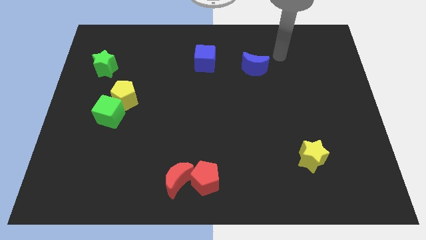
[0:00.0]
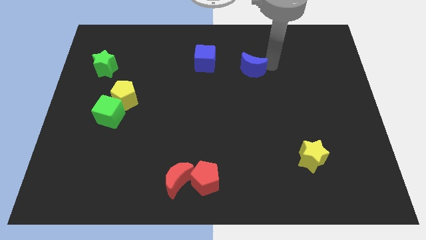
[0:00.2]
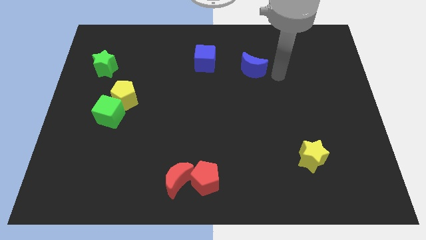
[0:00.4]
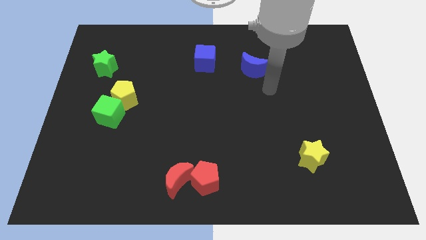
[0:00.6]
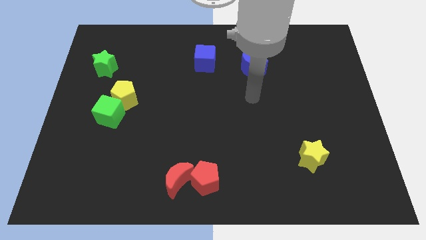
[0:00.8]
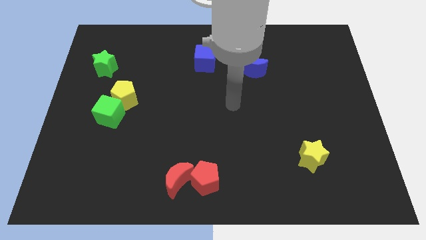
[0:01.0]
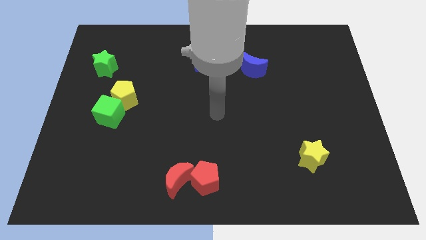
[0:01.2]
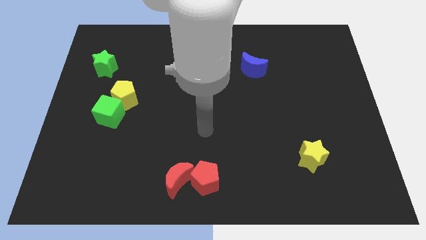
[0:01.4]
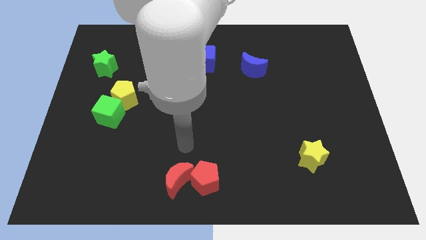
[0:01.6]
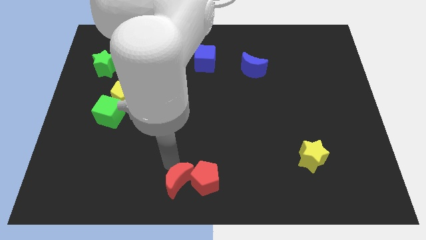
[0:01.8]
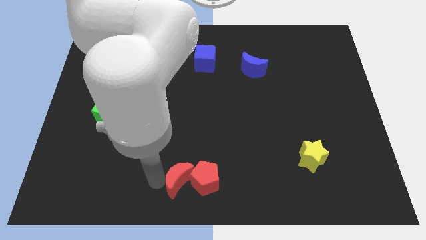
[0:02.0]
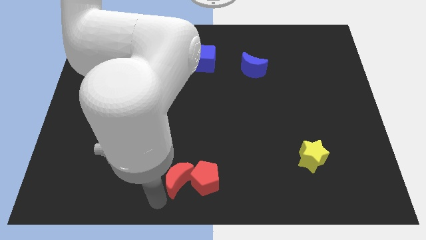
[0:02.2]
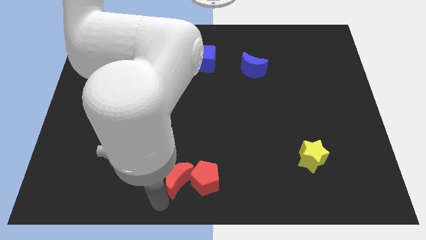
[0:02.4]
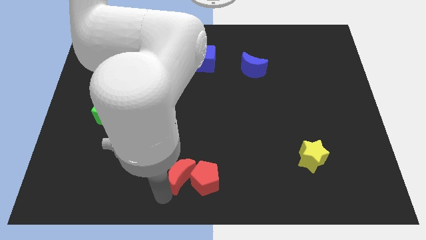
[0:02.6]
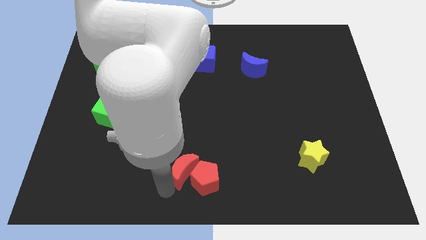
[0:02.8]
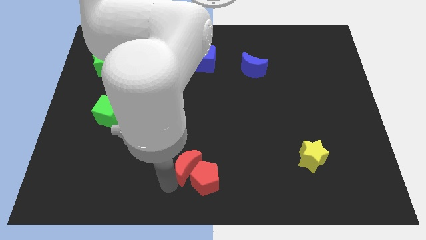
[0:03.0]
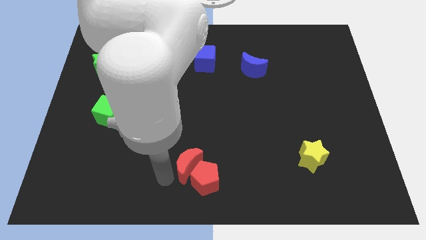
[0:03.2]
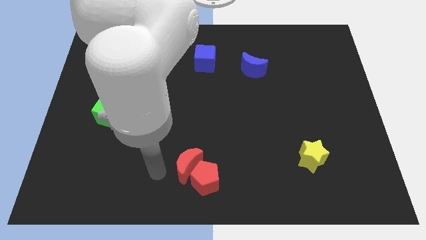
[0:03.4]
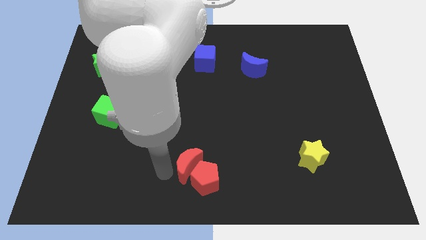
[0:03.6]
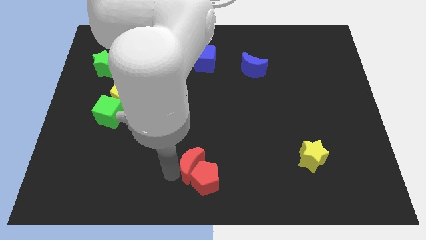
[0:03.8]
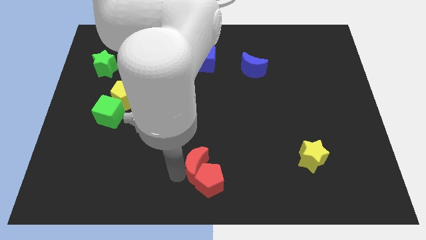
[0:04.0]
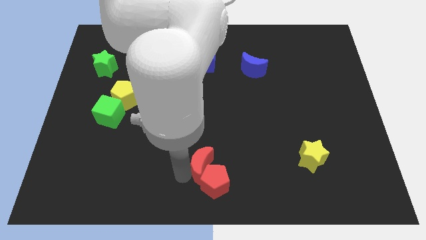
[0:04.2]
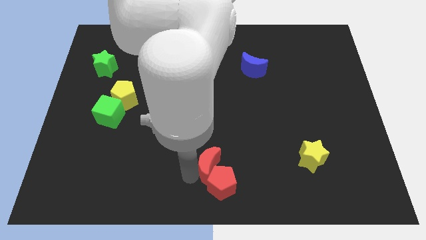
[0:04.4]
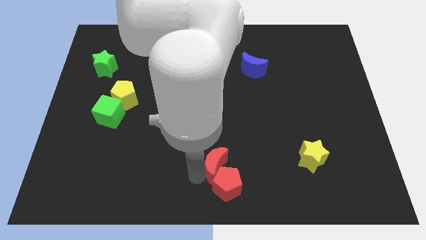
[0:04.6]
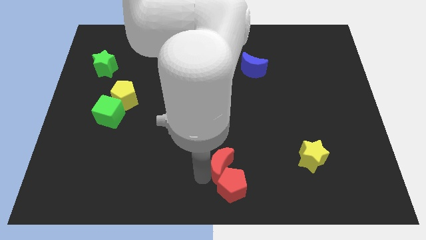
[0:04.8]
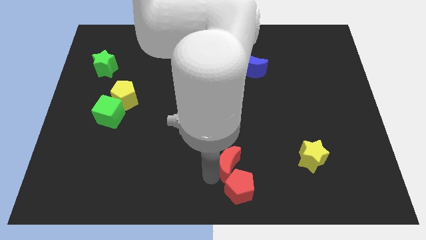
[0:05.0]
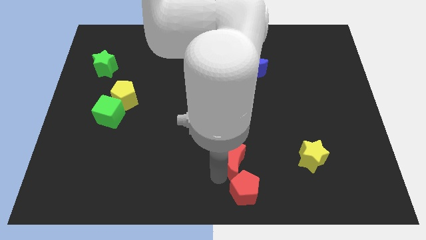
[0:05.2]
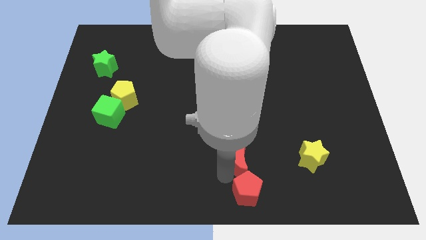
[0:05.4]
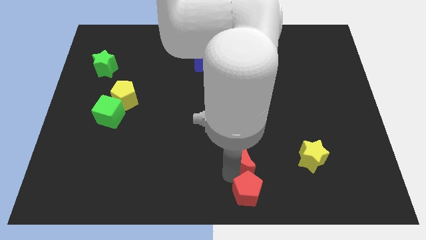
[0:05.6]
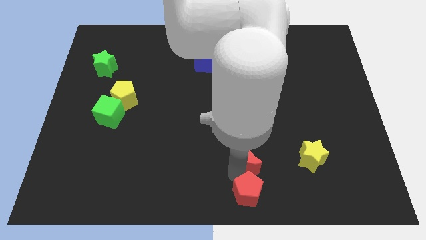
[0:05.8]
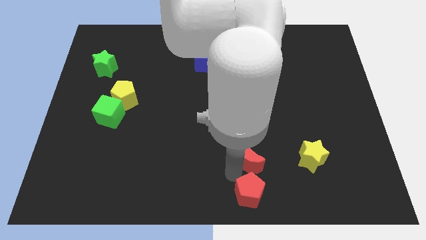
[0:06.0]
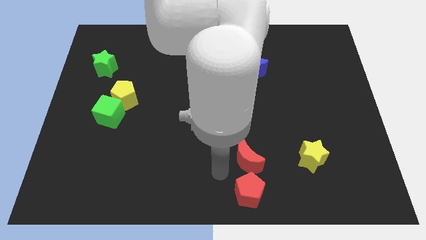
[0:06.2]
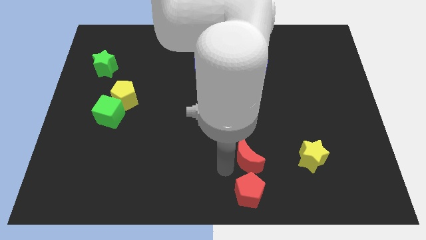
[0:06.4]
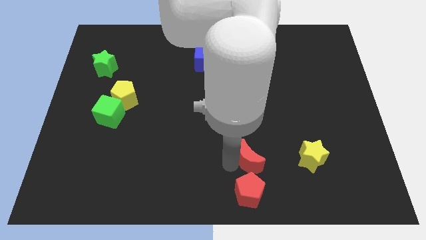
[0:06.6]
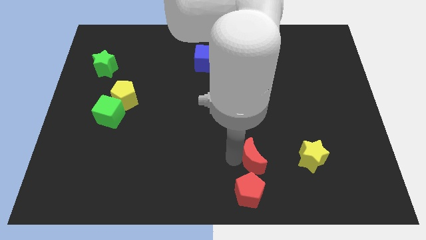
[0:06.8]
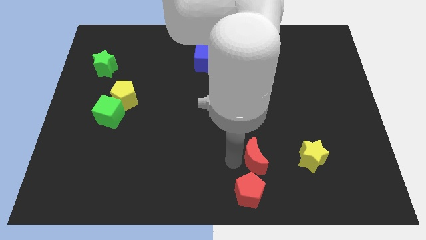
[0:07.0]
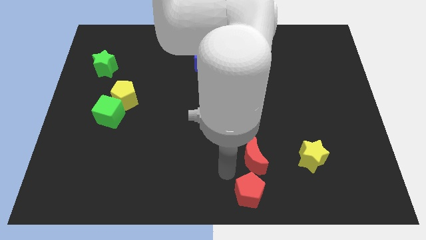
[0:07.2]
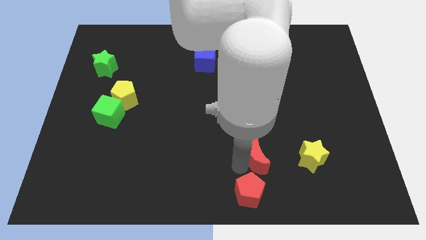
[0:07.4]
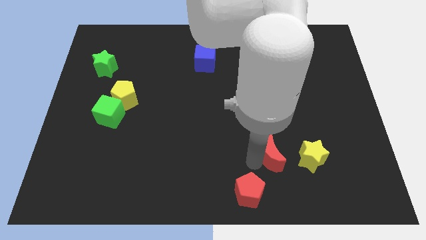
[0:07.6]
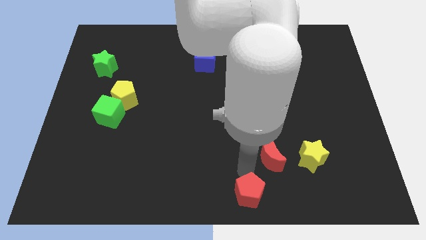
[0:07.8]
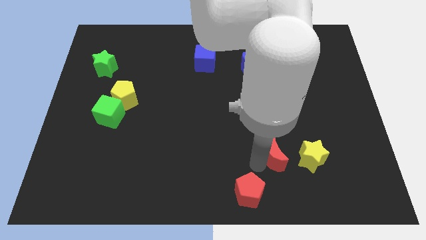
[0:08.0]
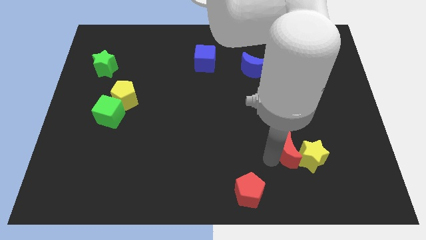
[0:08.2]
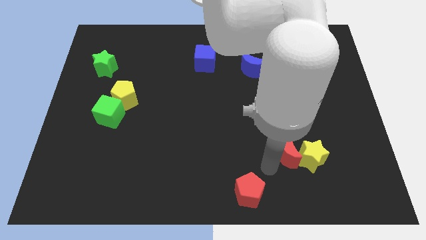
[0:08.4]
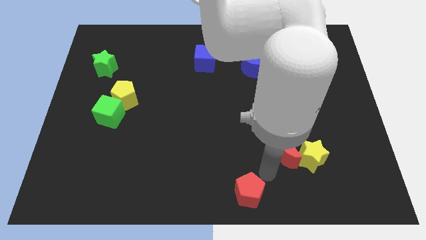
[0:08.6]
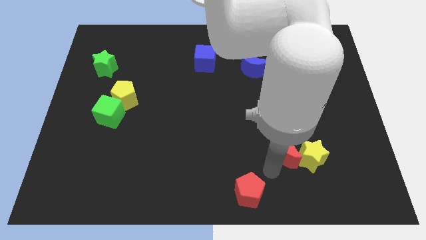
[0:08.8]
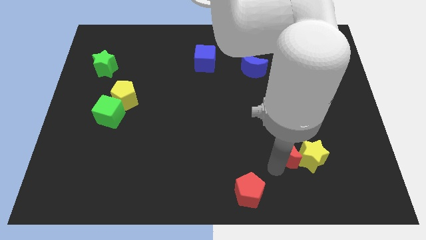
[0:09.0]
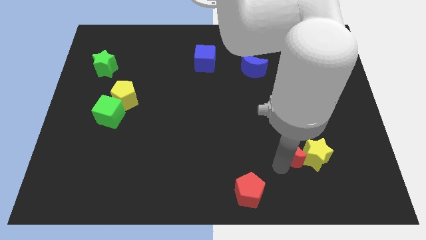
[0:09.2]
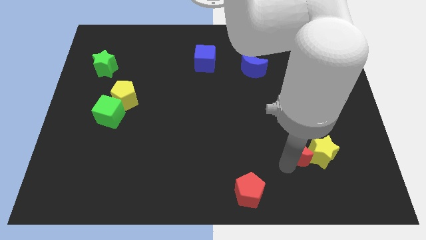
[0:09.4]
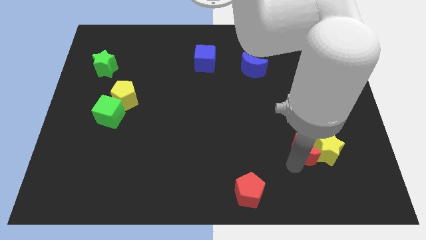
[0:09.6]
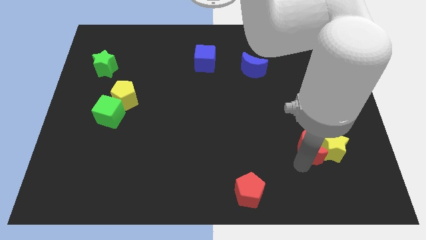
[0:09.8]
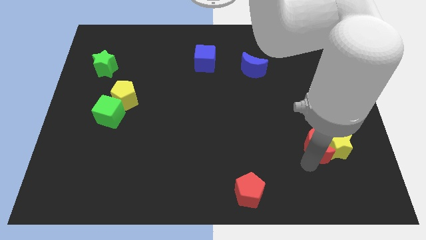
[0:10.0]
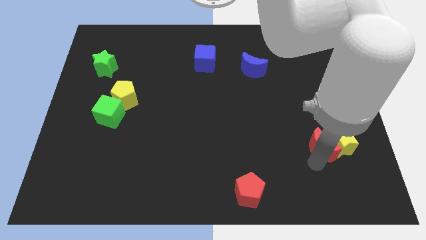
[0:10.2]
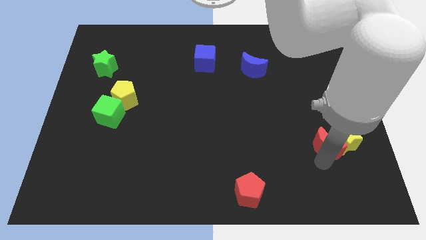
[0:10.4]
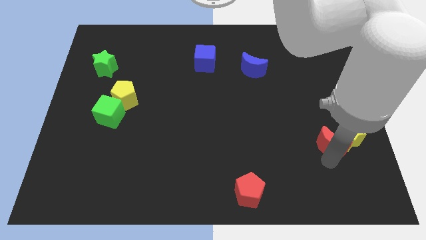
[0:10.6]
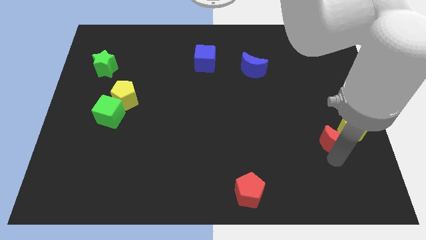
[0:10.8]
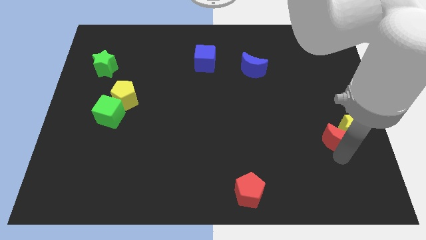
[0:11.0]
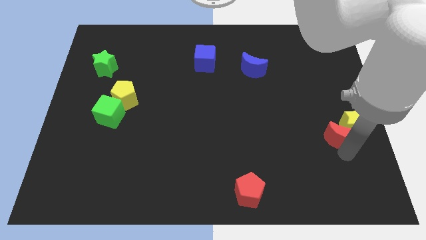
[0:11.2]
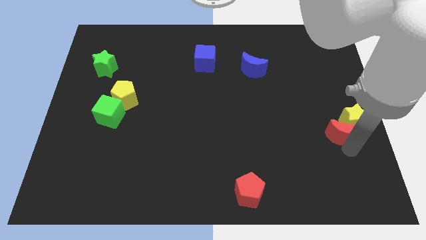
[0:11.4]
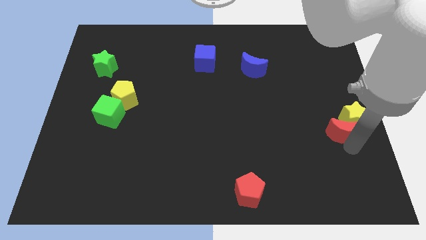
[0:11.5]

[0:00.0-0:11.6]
slide the red moon to the center right
